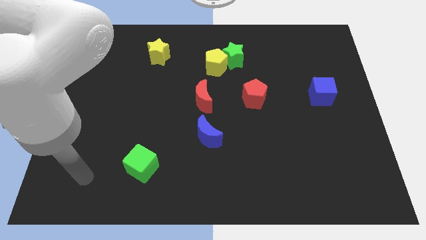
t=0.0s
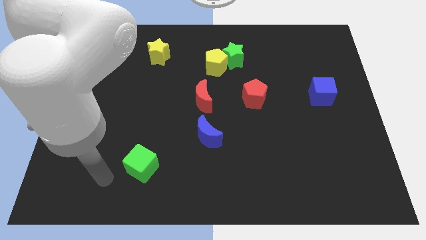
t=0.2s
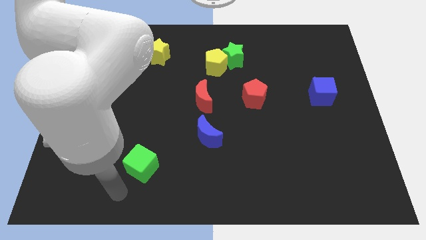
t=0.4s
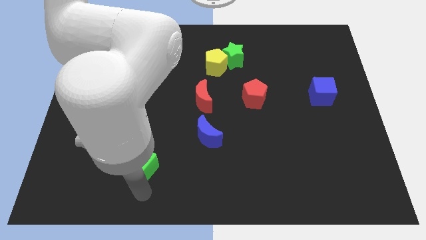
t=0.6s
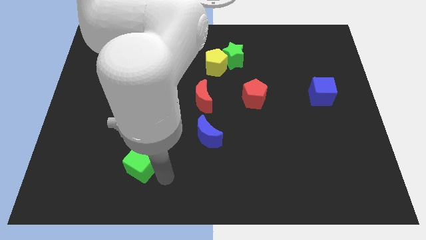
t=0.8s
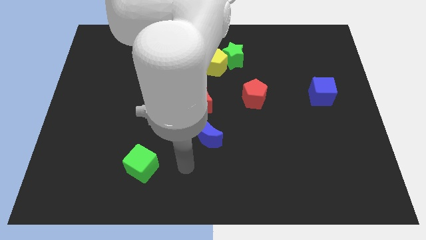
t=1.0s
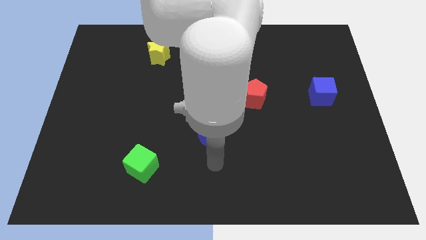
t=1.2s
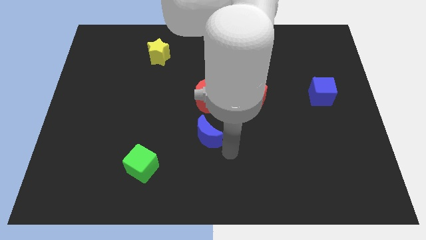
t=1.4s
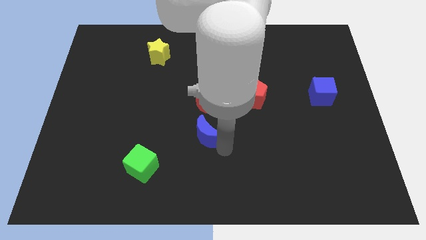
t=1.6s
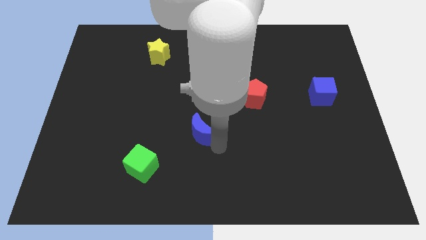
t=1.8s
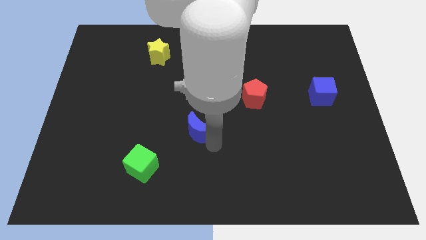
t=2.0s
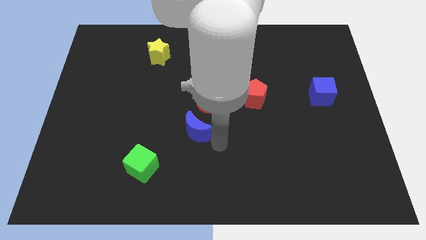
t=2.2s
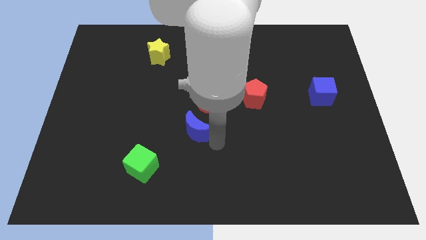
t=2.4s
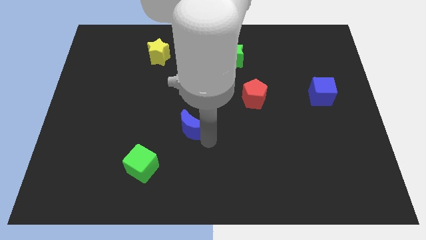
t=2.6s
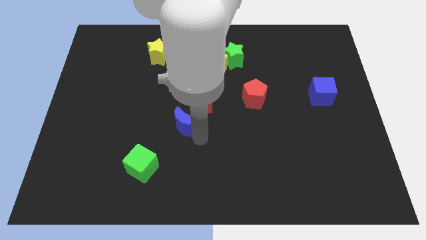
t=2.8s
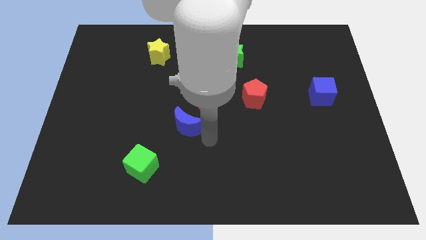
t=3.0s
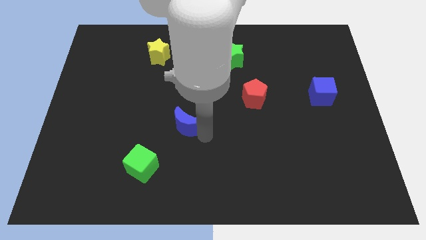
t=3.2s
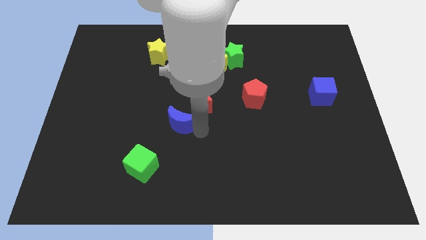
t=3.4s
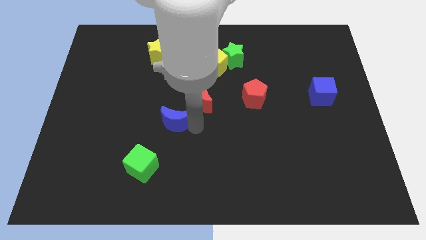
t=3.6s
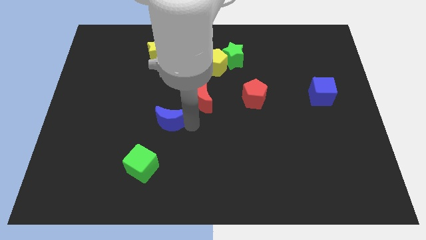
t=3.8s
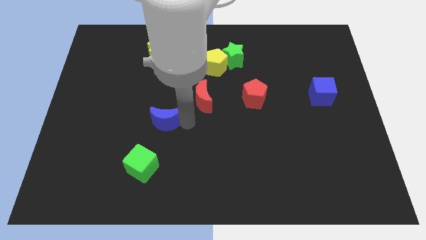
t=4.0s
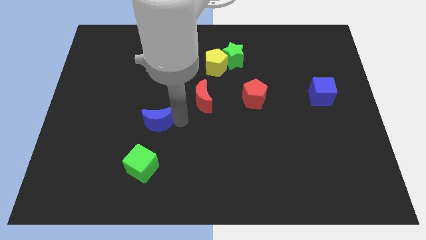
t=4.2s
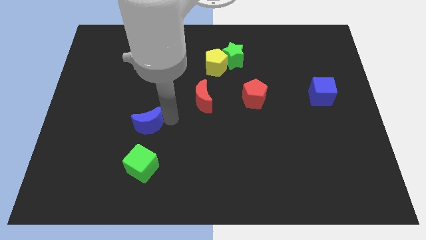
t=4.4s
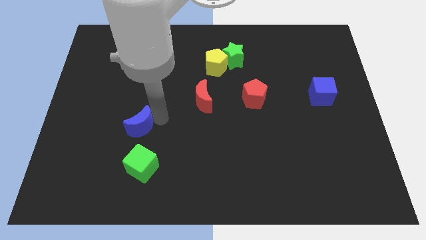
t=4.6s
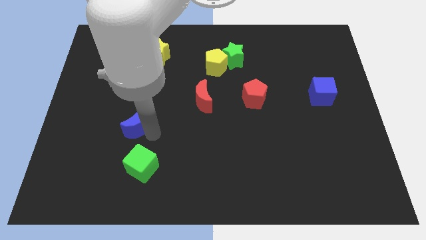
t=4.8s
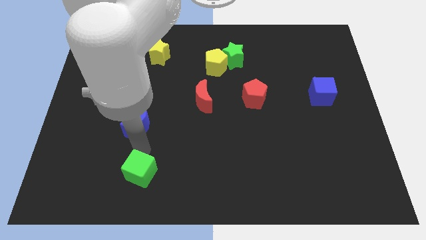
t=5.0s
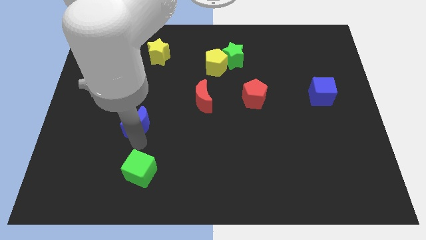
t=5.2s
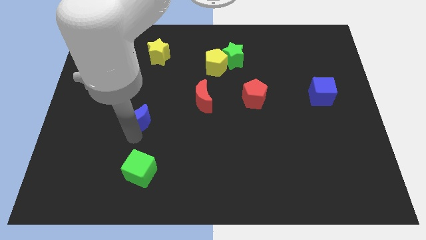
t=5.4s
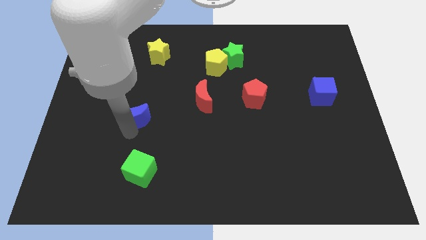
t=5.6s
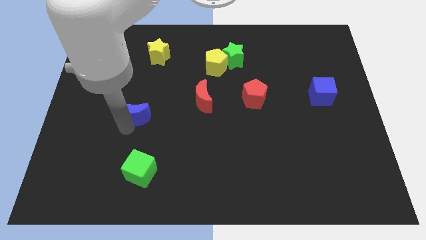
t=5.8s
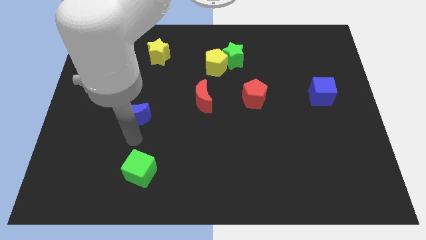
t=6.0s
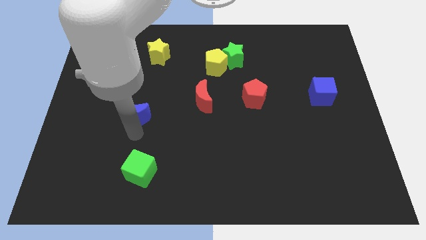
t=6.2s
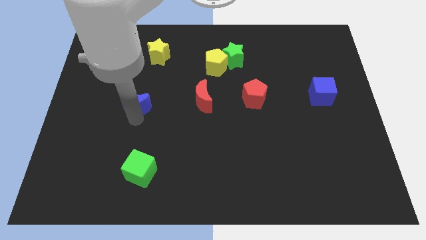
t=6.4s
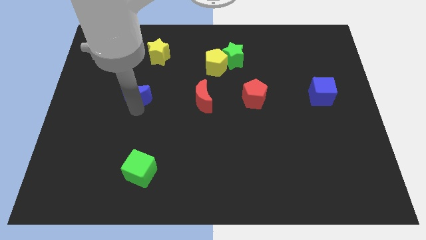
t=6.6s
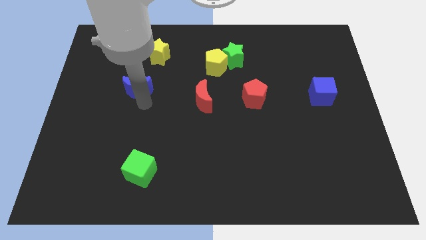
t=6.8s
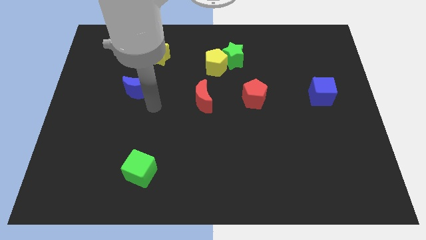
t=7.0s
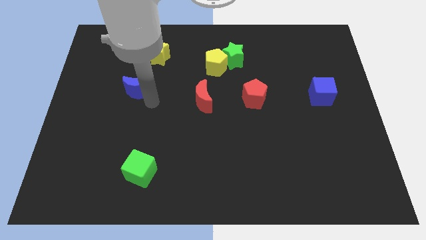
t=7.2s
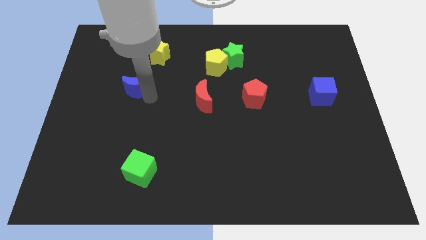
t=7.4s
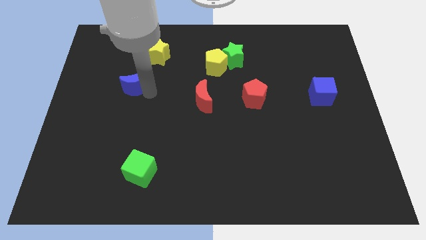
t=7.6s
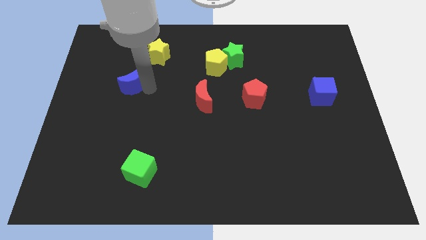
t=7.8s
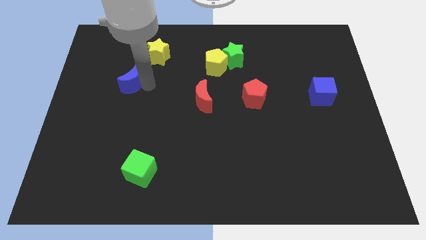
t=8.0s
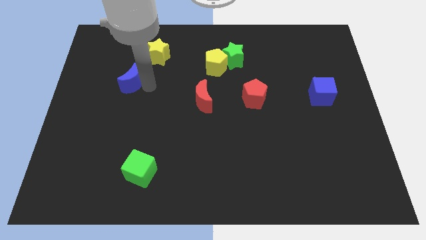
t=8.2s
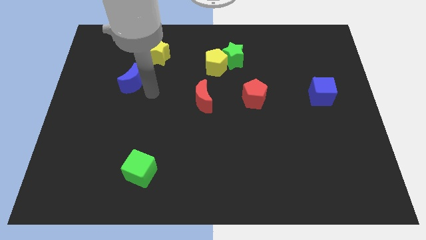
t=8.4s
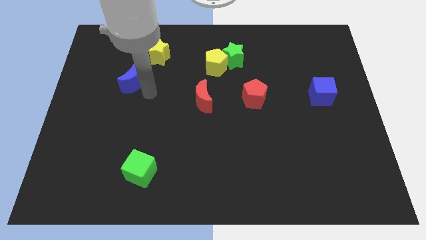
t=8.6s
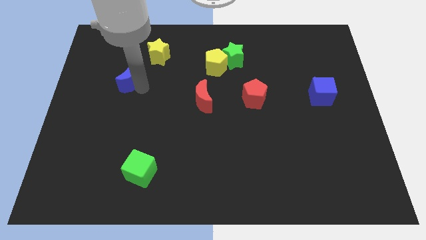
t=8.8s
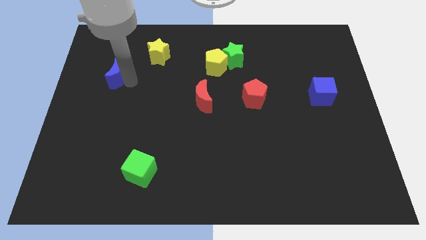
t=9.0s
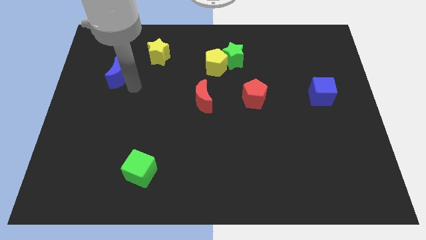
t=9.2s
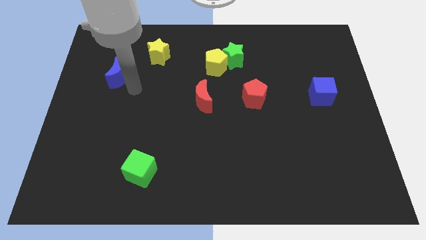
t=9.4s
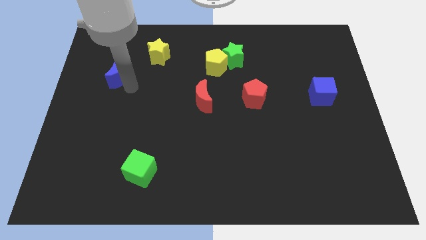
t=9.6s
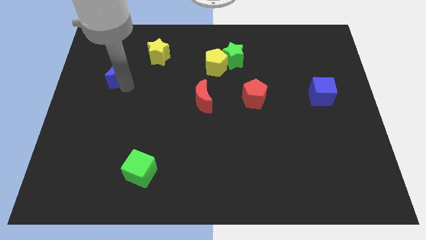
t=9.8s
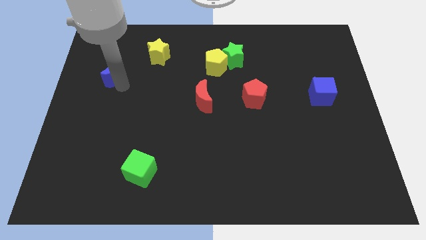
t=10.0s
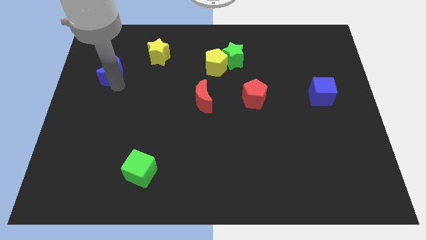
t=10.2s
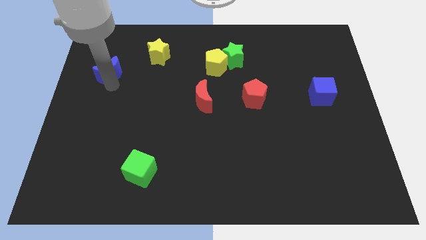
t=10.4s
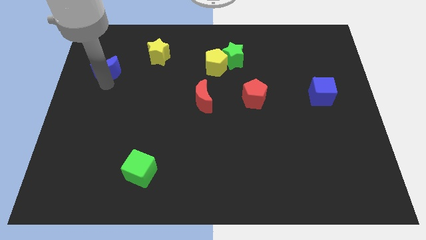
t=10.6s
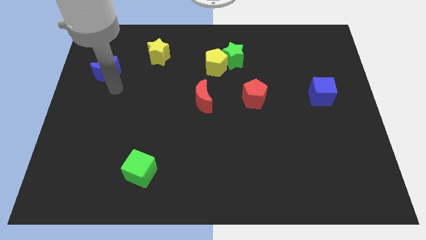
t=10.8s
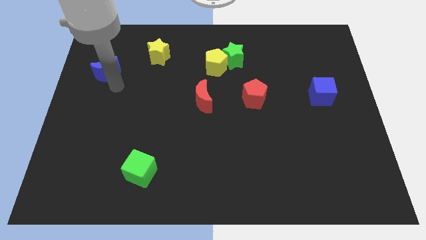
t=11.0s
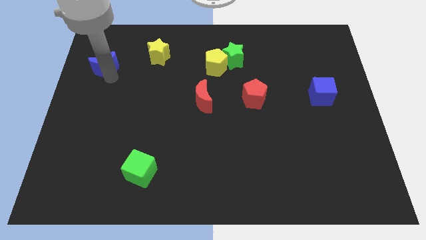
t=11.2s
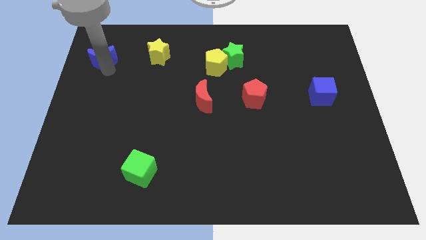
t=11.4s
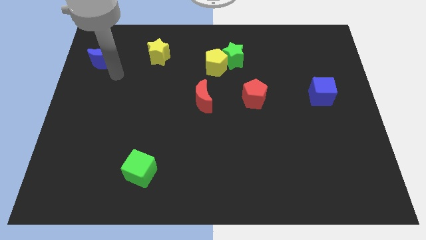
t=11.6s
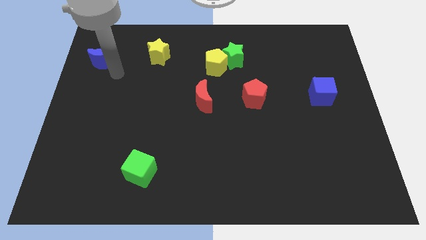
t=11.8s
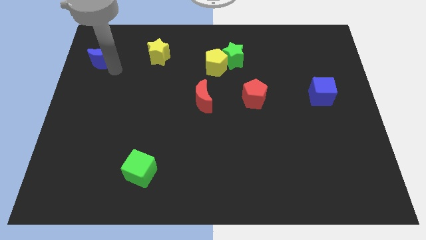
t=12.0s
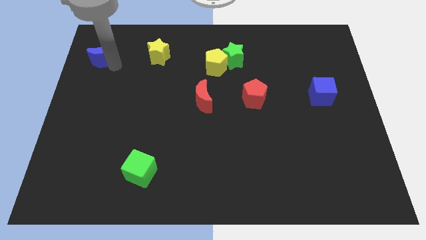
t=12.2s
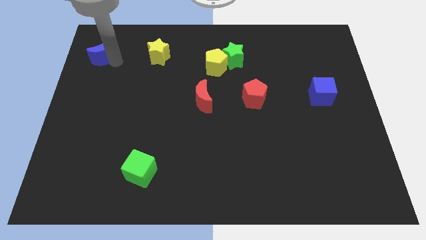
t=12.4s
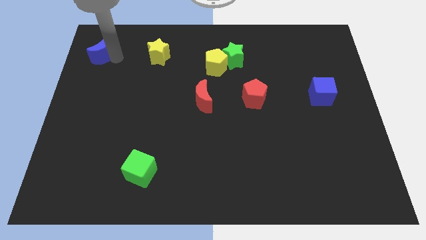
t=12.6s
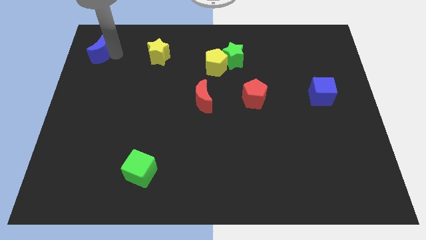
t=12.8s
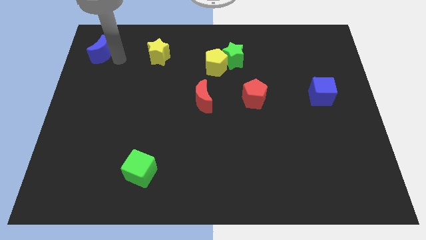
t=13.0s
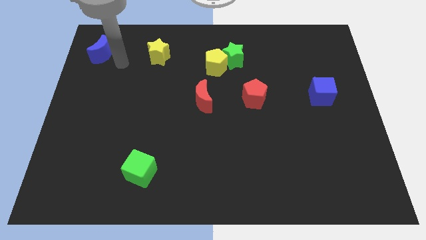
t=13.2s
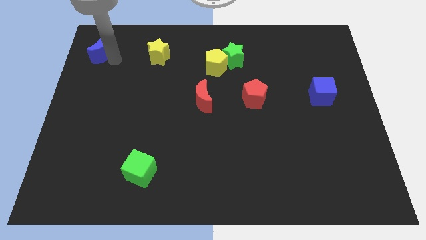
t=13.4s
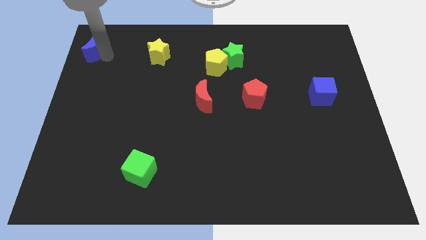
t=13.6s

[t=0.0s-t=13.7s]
put the blue moon to the top left
